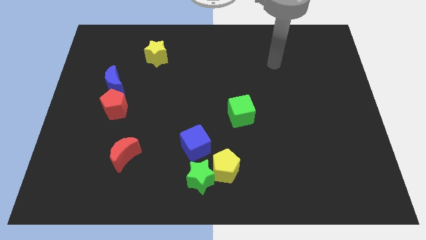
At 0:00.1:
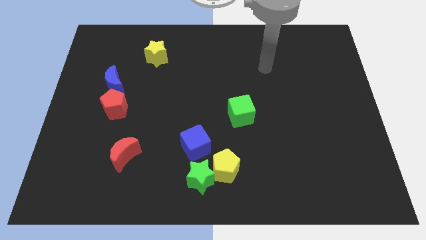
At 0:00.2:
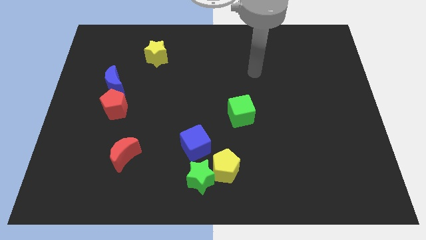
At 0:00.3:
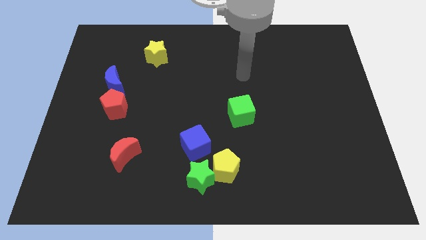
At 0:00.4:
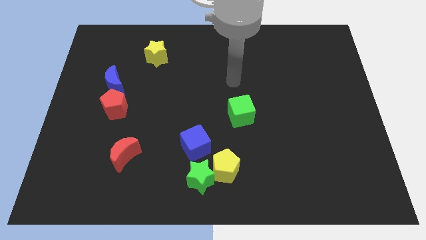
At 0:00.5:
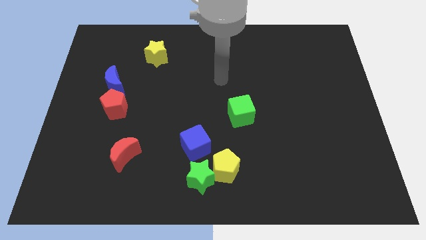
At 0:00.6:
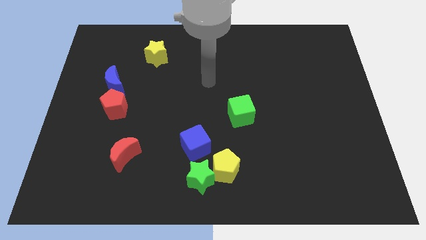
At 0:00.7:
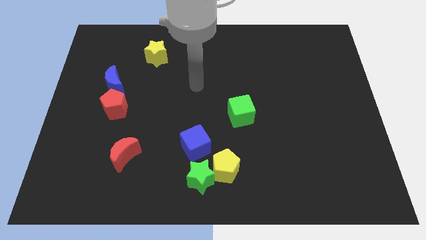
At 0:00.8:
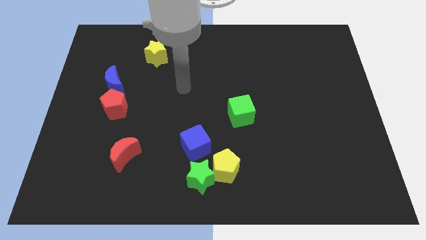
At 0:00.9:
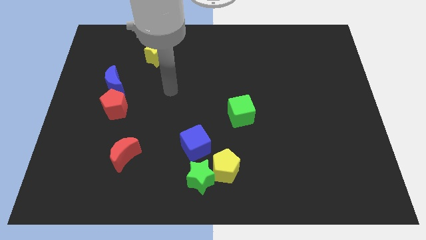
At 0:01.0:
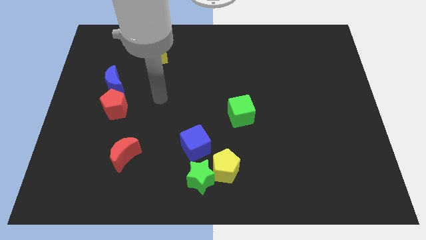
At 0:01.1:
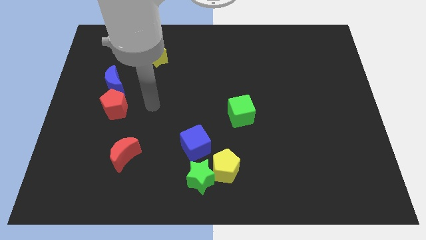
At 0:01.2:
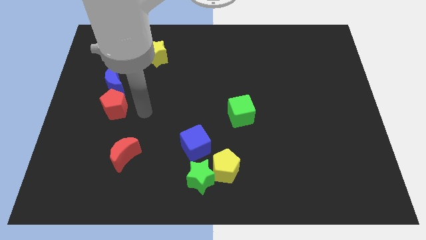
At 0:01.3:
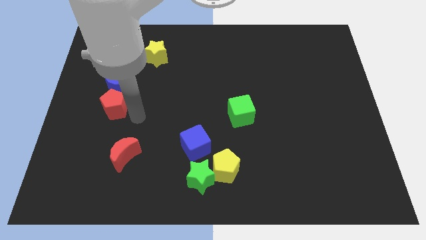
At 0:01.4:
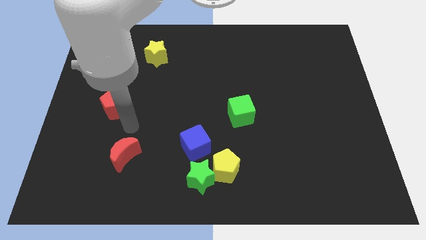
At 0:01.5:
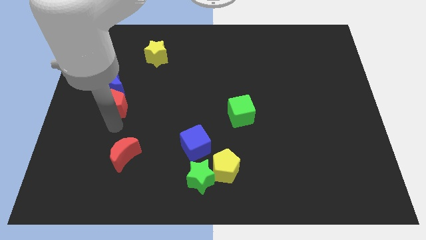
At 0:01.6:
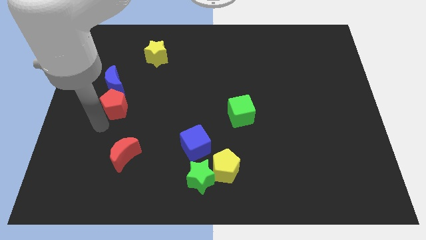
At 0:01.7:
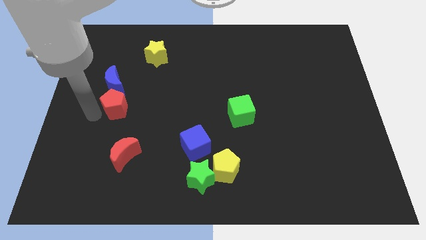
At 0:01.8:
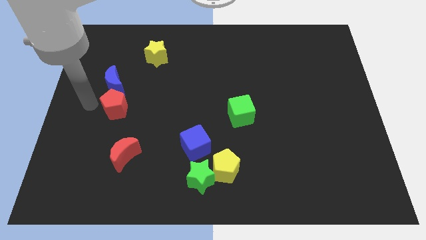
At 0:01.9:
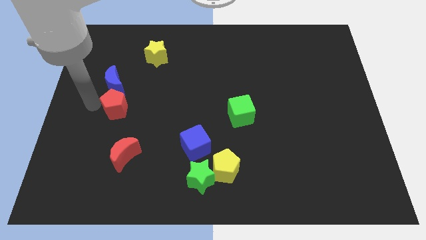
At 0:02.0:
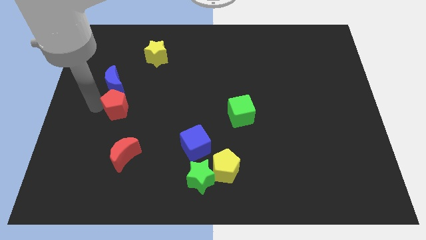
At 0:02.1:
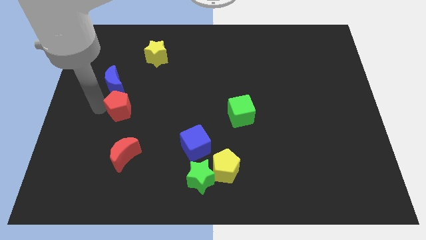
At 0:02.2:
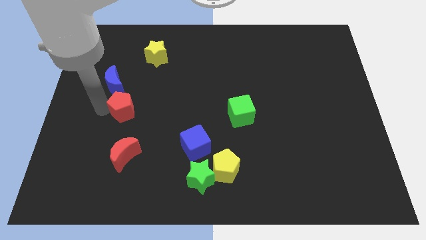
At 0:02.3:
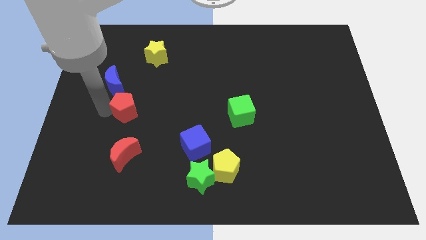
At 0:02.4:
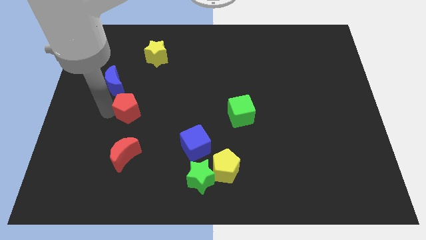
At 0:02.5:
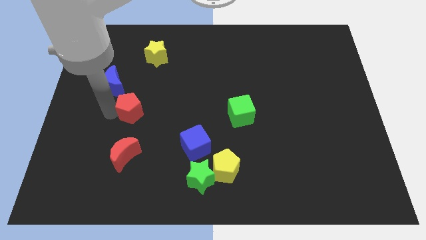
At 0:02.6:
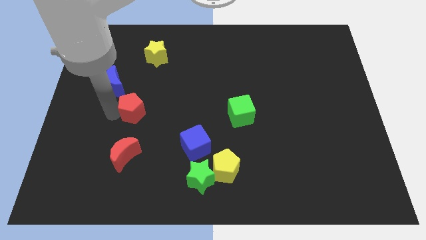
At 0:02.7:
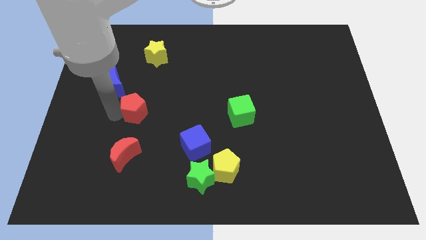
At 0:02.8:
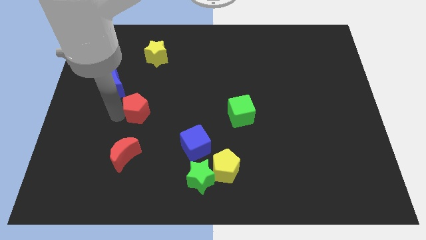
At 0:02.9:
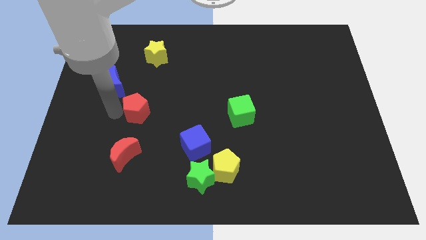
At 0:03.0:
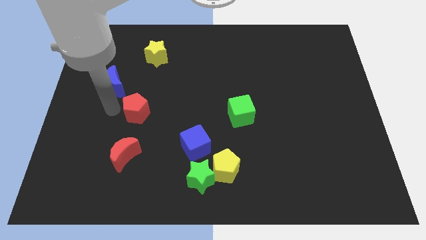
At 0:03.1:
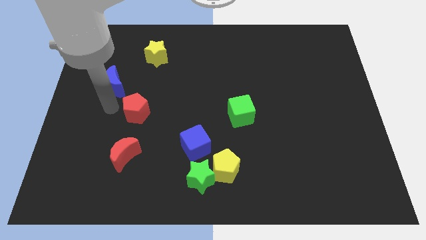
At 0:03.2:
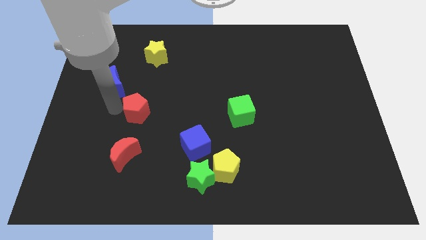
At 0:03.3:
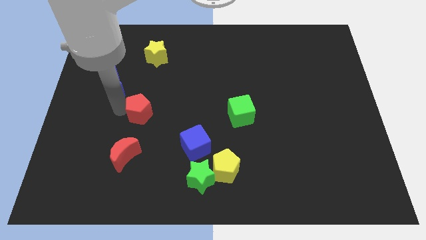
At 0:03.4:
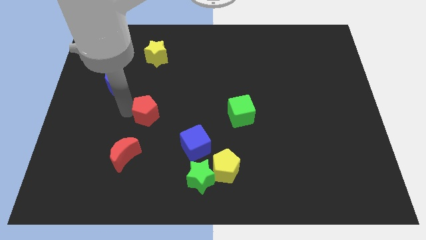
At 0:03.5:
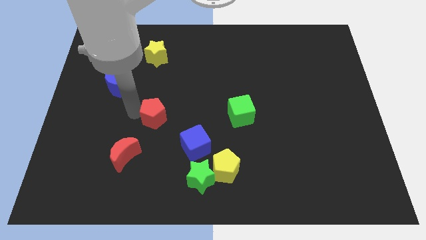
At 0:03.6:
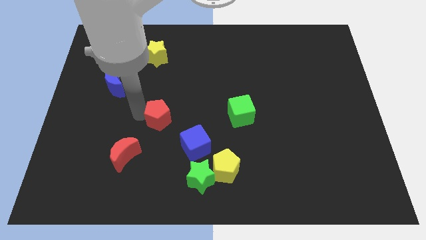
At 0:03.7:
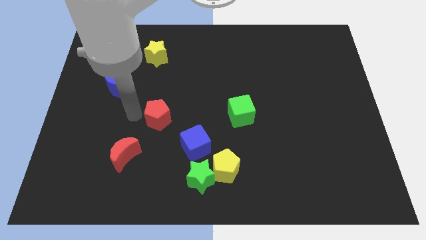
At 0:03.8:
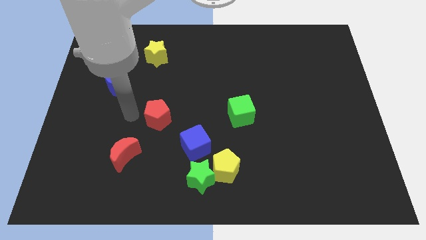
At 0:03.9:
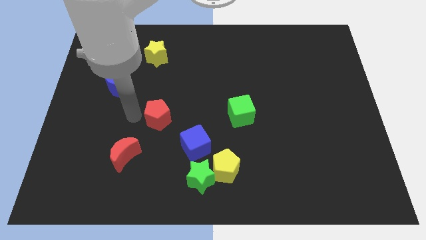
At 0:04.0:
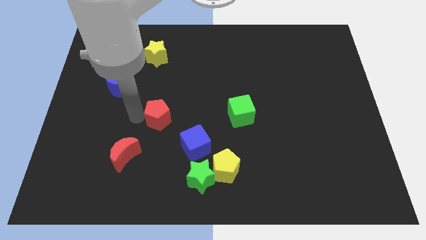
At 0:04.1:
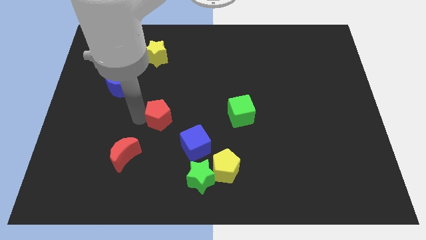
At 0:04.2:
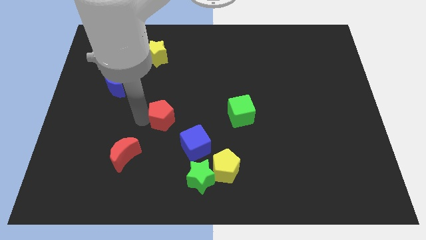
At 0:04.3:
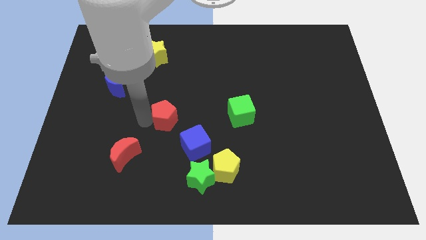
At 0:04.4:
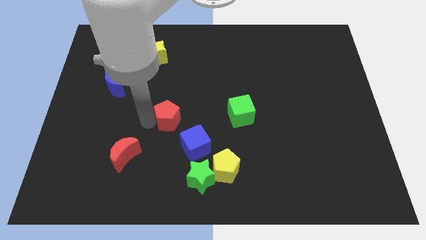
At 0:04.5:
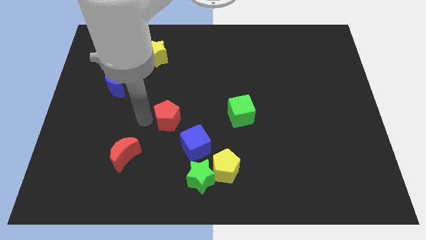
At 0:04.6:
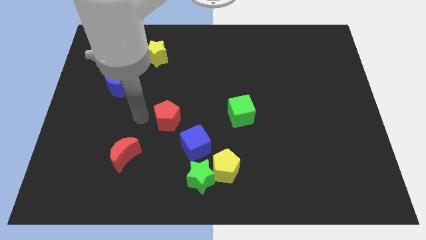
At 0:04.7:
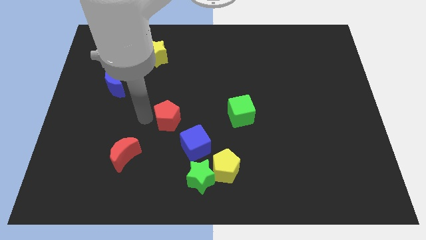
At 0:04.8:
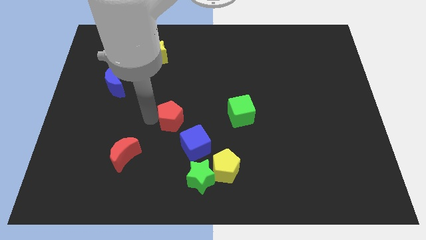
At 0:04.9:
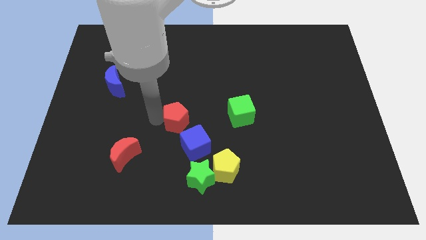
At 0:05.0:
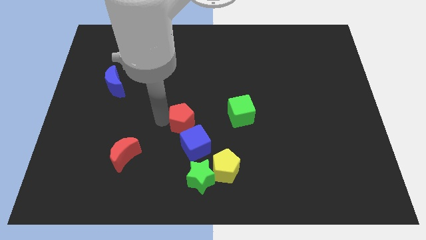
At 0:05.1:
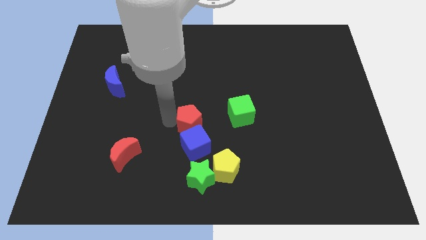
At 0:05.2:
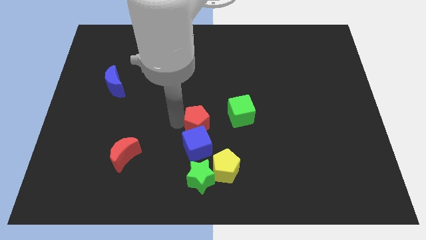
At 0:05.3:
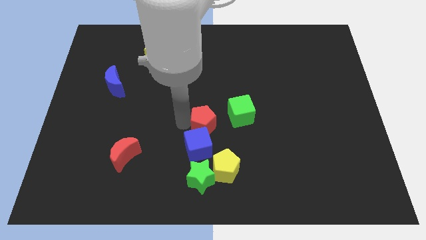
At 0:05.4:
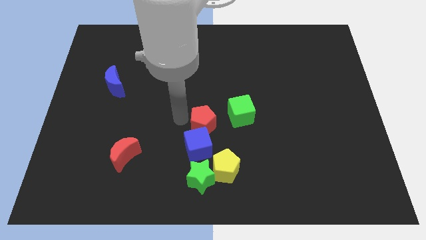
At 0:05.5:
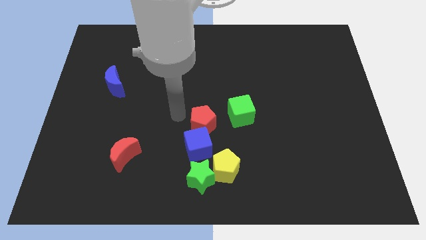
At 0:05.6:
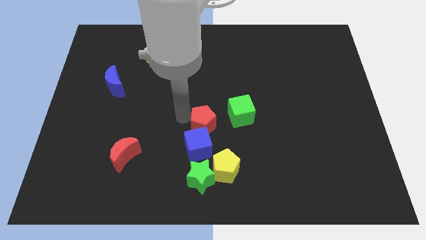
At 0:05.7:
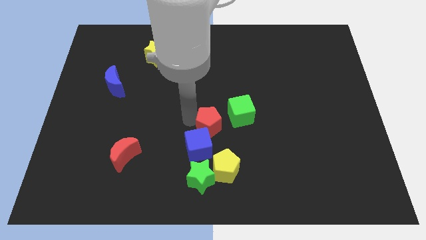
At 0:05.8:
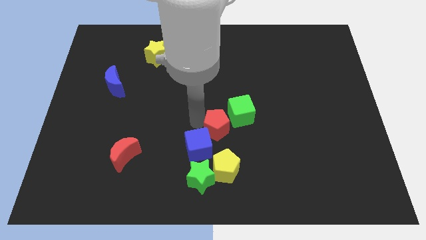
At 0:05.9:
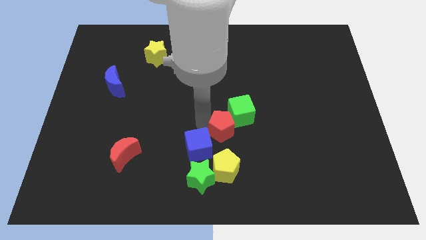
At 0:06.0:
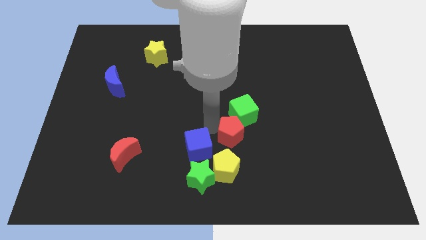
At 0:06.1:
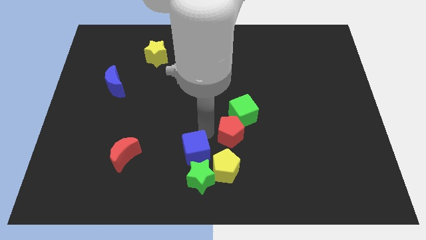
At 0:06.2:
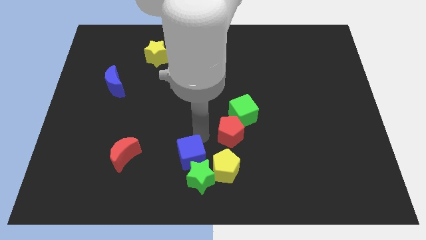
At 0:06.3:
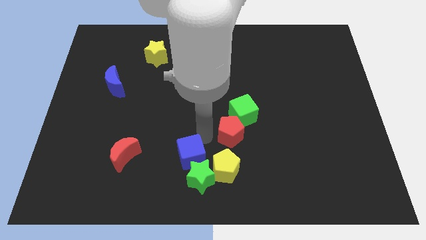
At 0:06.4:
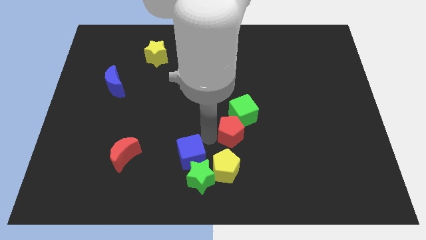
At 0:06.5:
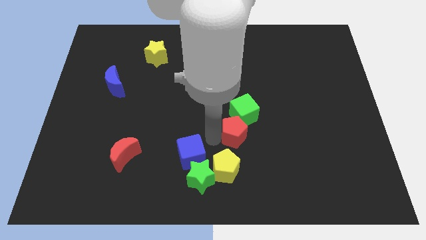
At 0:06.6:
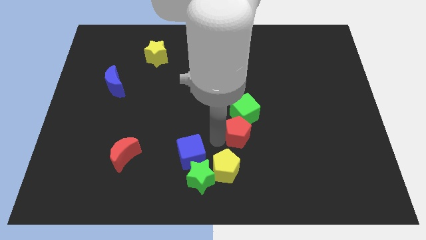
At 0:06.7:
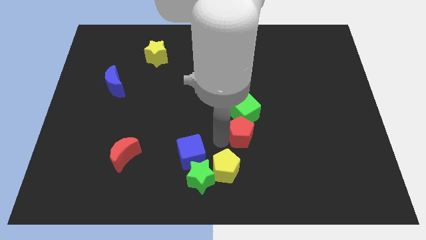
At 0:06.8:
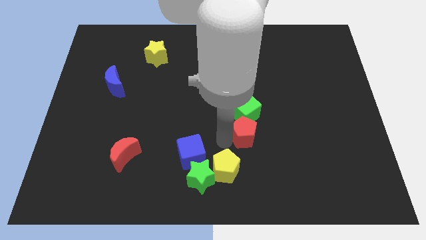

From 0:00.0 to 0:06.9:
slide the red pentagon diagonally down and to the right of the green cube

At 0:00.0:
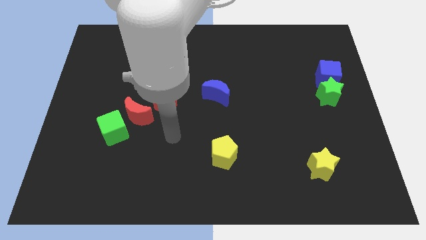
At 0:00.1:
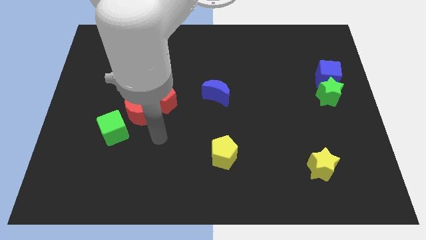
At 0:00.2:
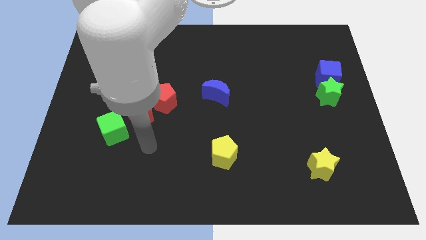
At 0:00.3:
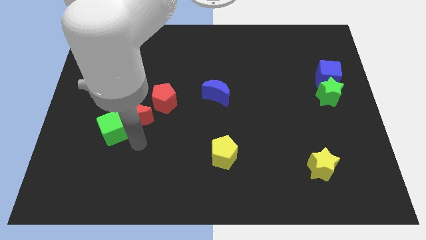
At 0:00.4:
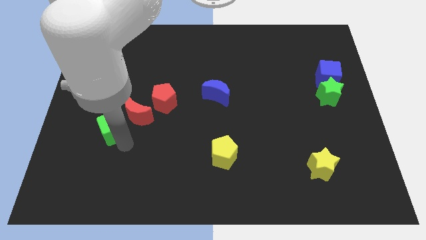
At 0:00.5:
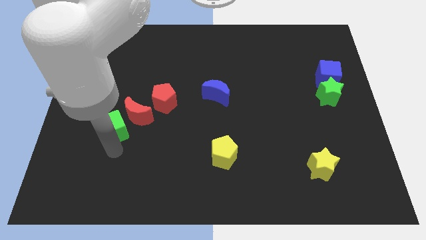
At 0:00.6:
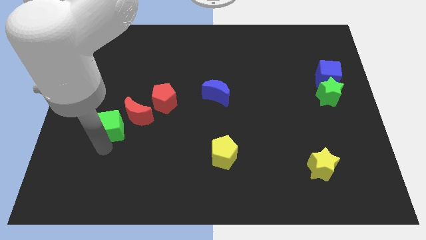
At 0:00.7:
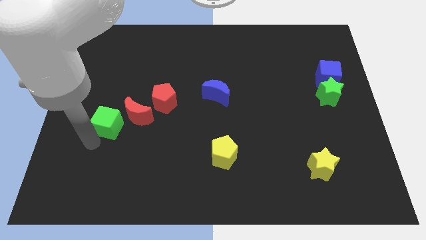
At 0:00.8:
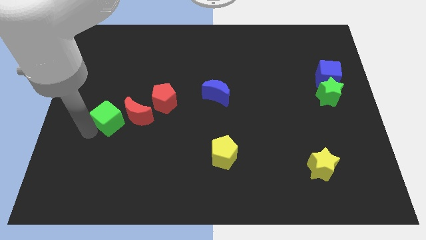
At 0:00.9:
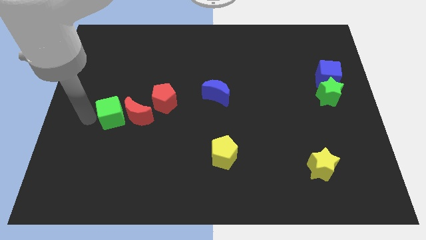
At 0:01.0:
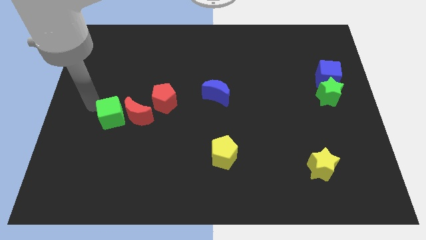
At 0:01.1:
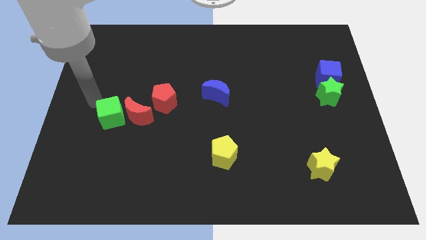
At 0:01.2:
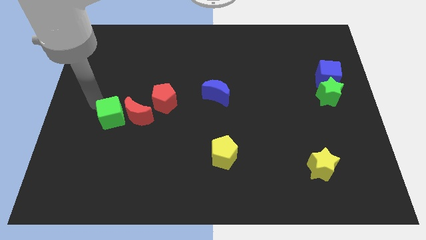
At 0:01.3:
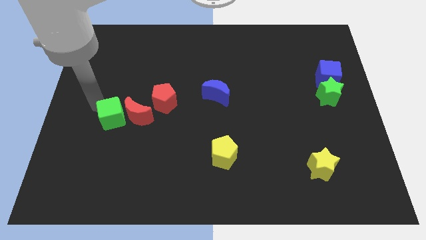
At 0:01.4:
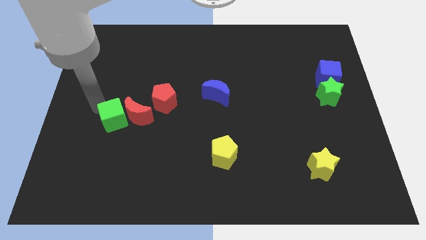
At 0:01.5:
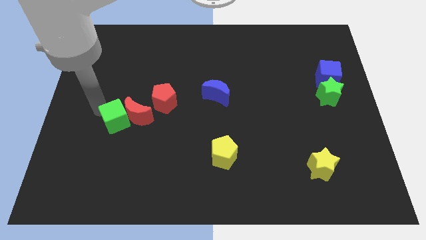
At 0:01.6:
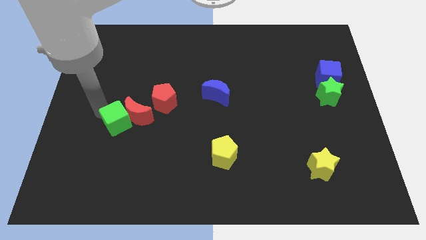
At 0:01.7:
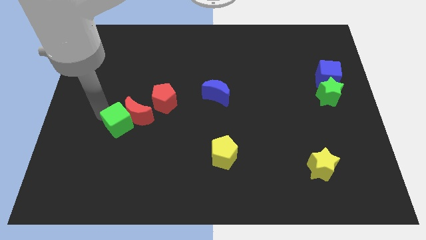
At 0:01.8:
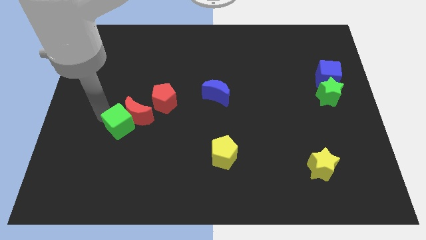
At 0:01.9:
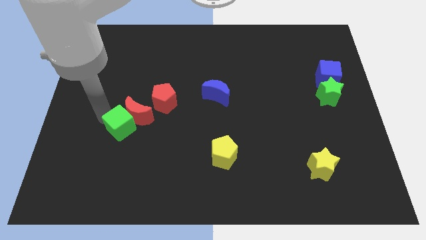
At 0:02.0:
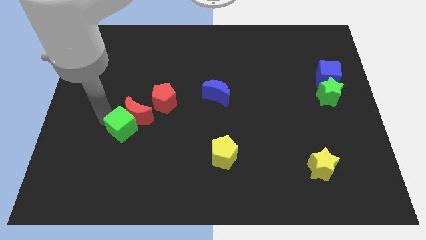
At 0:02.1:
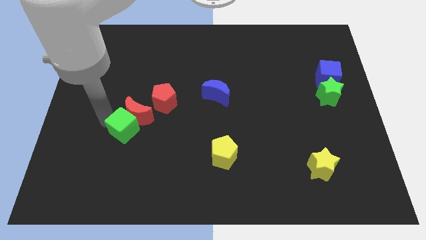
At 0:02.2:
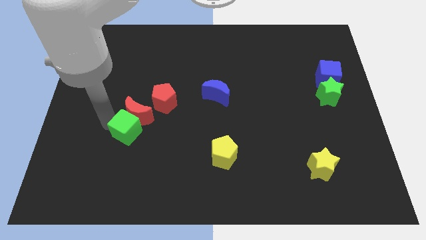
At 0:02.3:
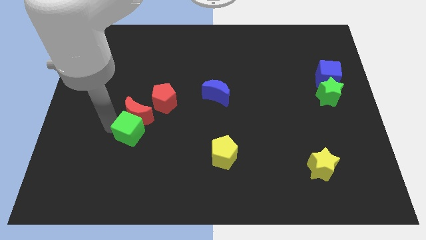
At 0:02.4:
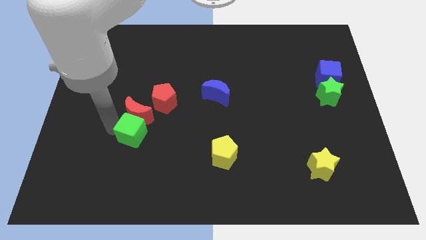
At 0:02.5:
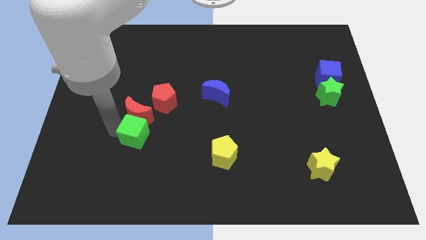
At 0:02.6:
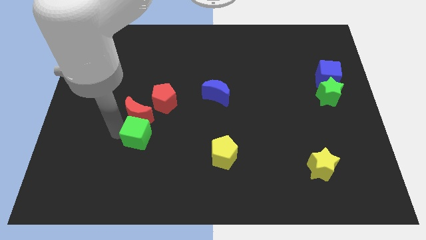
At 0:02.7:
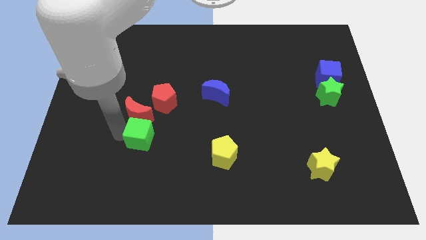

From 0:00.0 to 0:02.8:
put the green cube to the bottom side of the red pentagon
